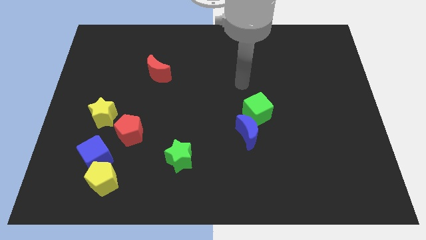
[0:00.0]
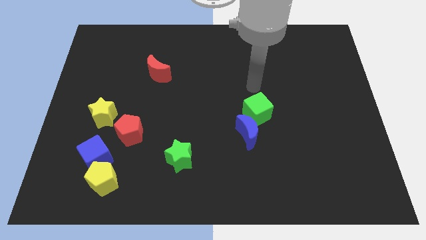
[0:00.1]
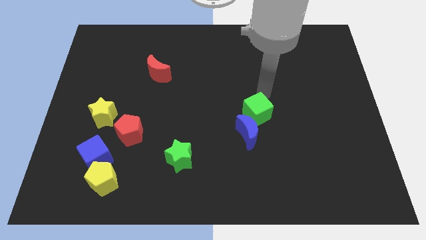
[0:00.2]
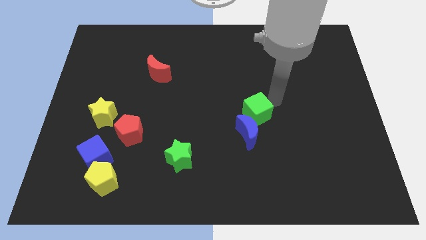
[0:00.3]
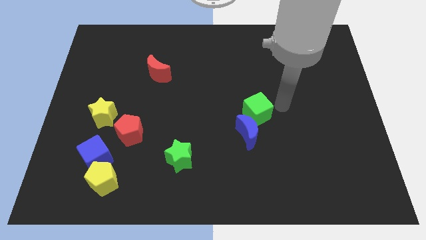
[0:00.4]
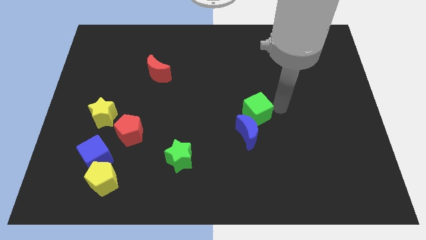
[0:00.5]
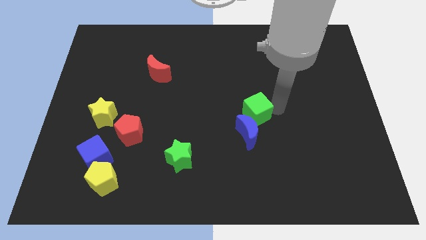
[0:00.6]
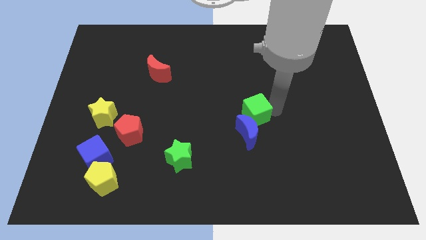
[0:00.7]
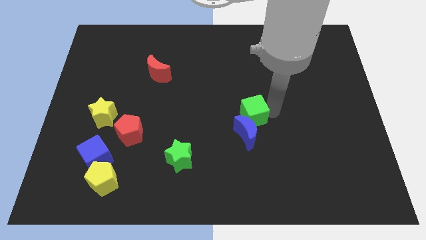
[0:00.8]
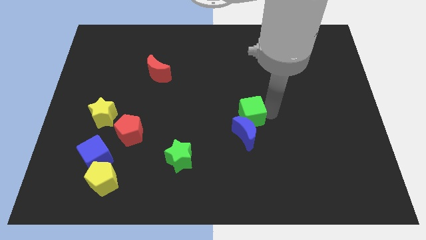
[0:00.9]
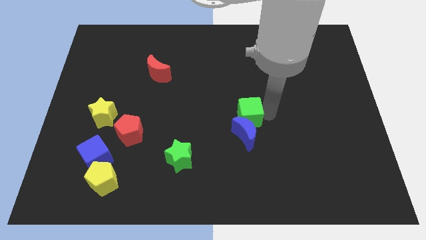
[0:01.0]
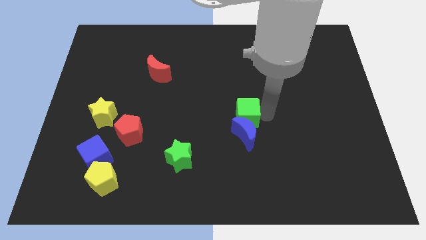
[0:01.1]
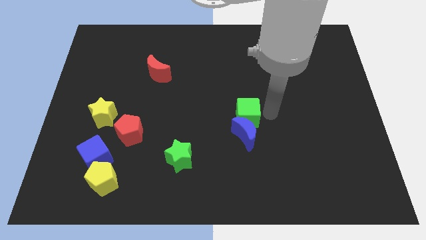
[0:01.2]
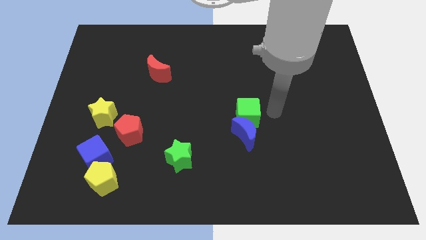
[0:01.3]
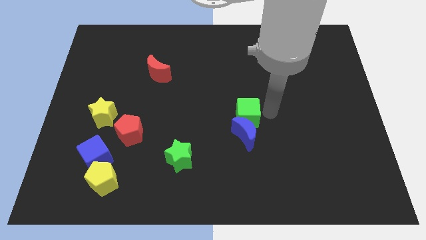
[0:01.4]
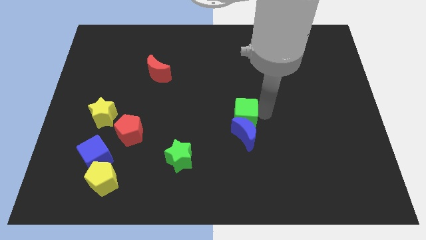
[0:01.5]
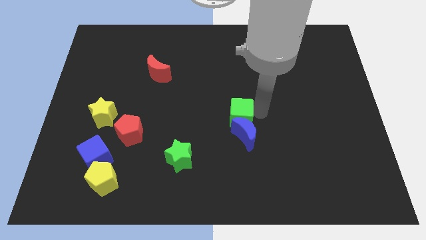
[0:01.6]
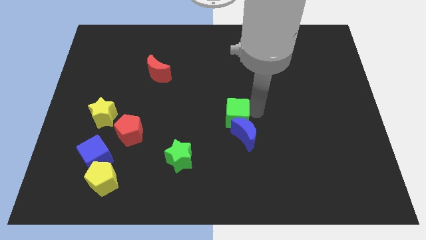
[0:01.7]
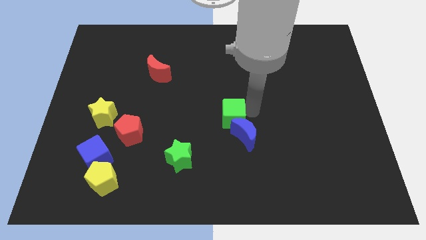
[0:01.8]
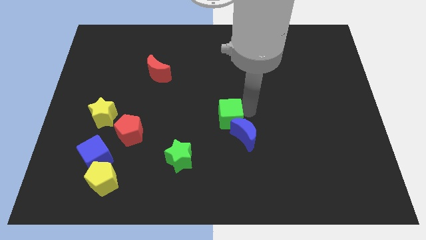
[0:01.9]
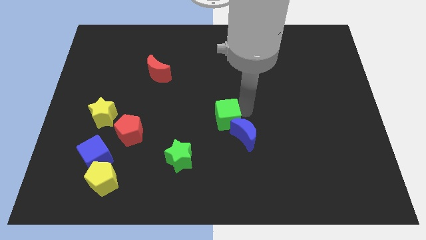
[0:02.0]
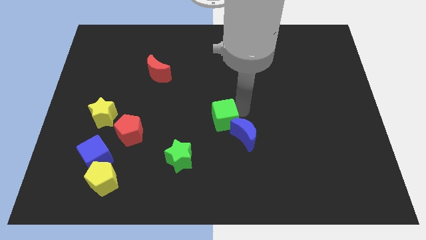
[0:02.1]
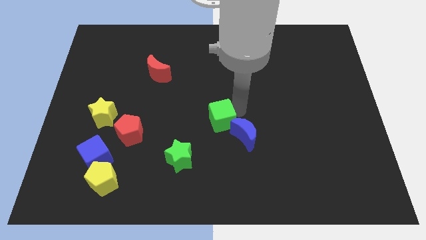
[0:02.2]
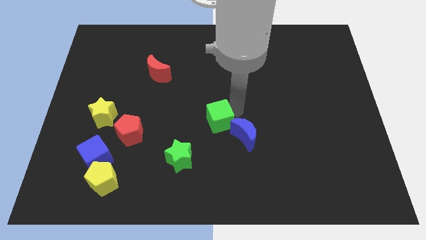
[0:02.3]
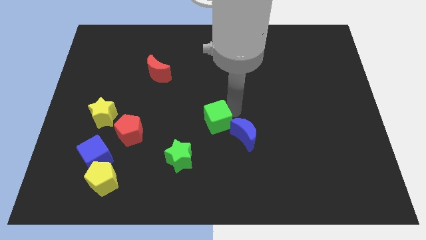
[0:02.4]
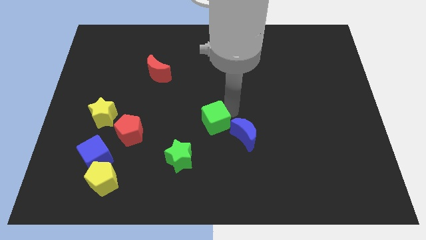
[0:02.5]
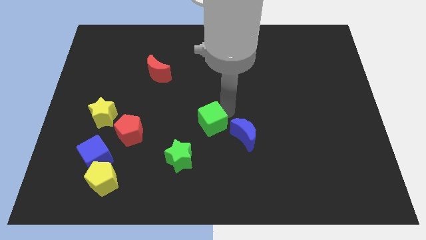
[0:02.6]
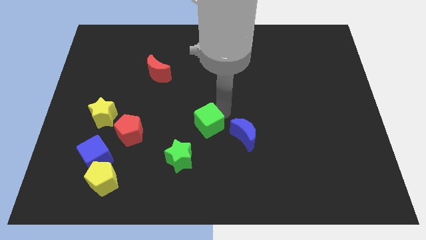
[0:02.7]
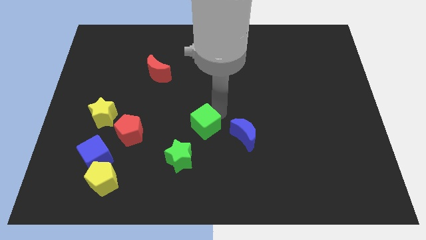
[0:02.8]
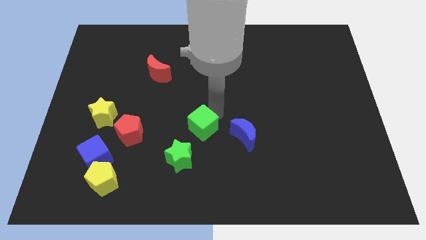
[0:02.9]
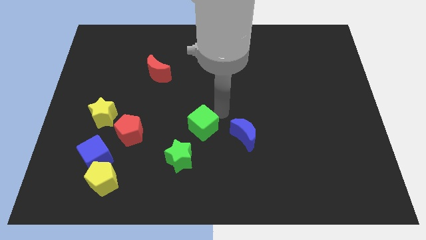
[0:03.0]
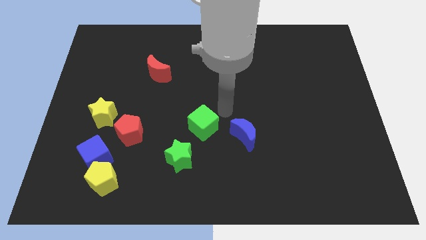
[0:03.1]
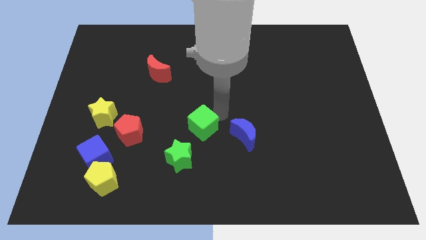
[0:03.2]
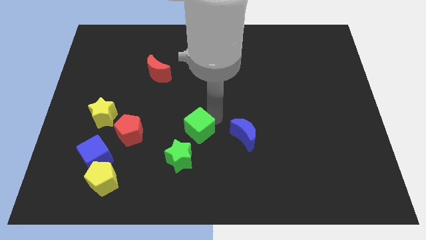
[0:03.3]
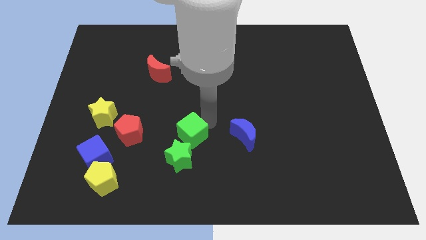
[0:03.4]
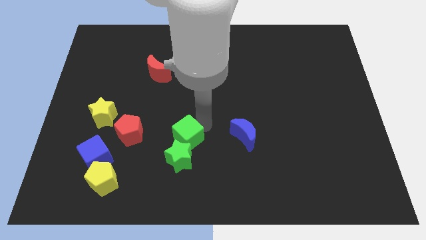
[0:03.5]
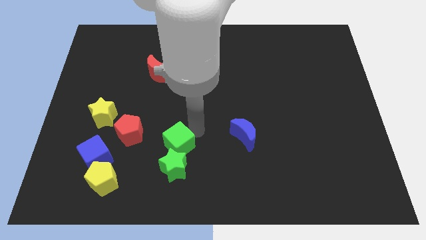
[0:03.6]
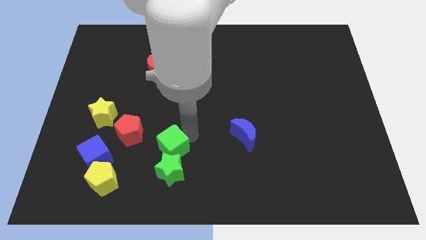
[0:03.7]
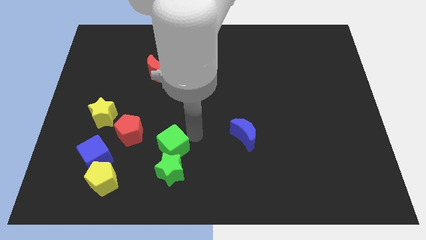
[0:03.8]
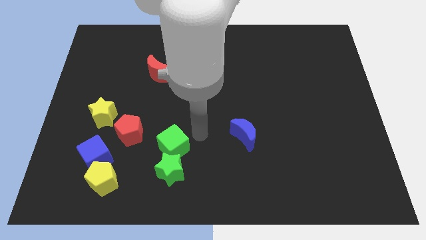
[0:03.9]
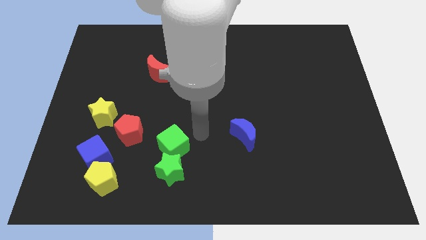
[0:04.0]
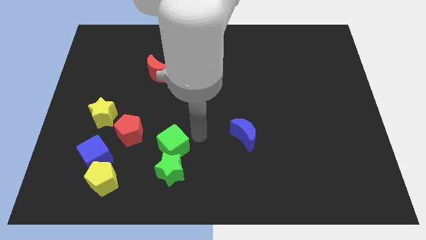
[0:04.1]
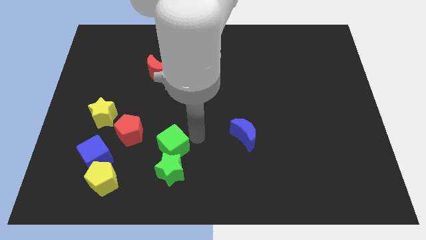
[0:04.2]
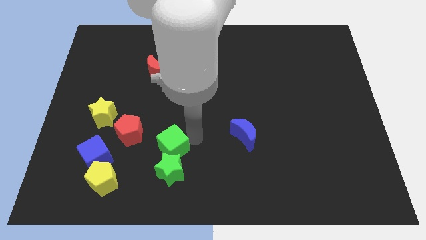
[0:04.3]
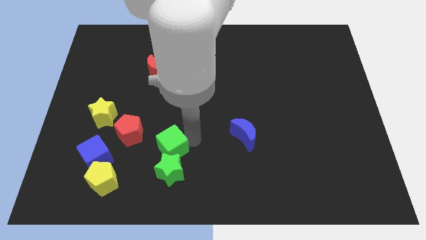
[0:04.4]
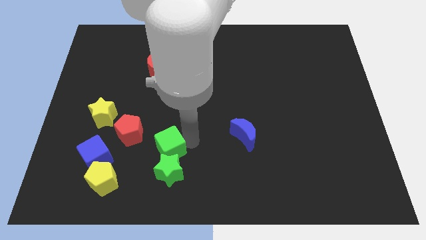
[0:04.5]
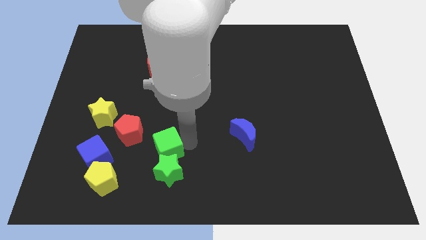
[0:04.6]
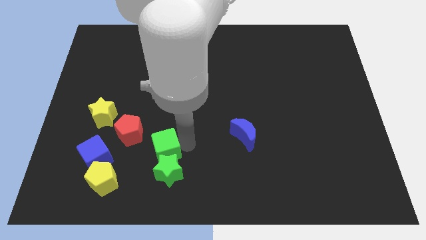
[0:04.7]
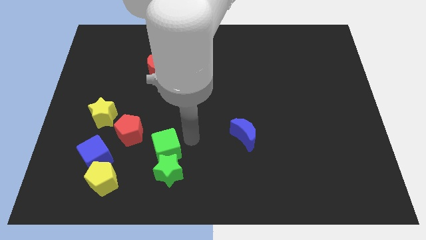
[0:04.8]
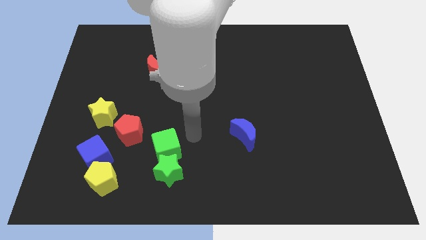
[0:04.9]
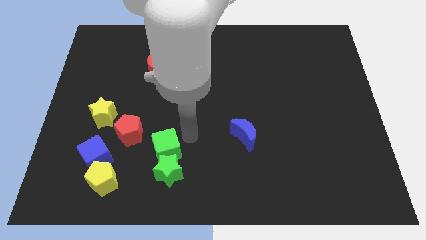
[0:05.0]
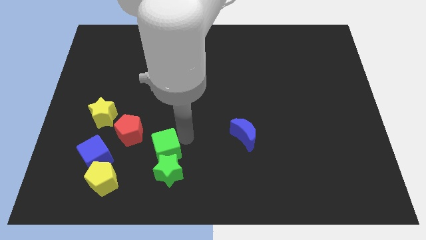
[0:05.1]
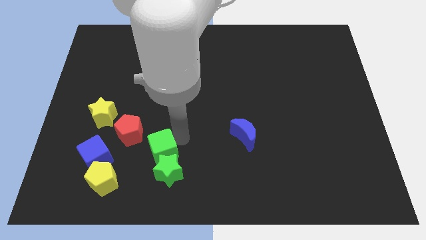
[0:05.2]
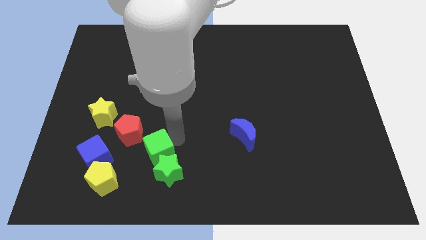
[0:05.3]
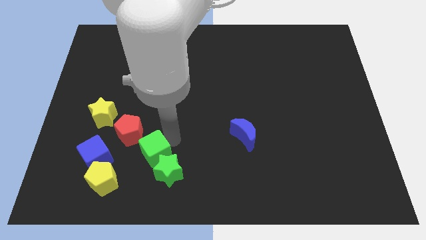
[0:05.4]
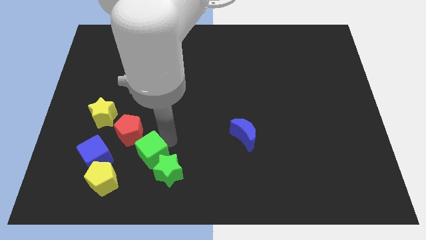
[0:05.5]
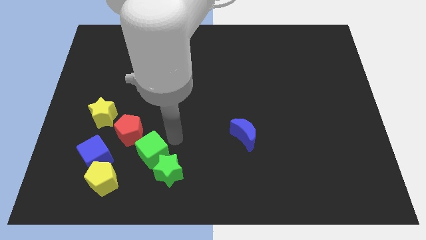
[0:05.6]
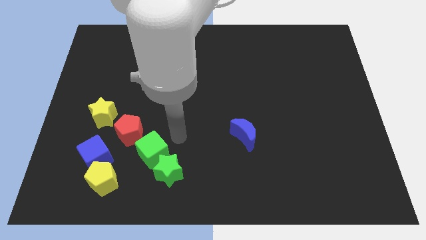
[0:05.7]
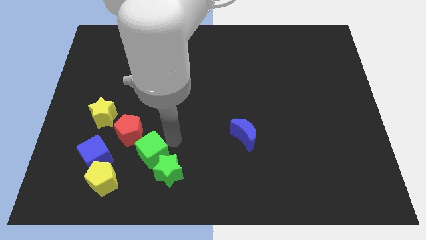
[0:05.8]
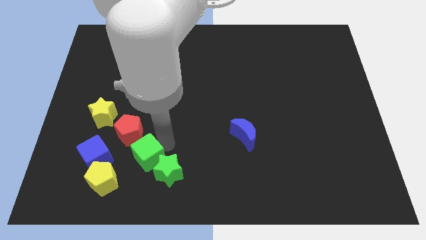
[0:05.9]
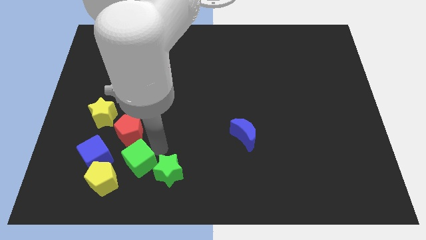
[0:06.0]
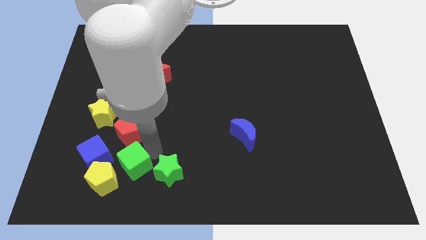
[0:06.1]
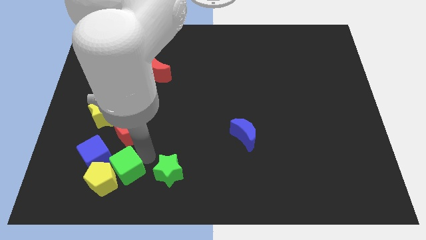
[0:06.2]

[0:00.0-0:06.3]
move the green cube next to the yellow pentagon
